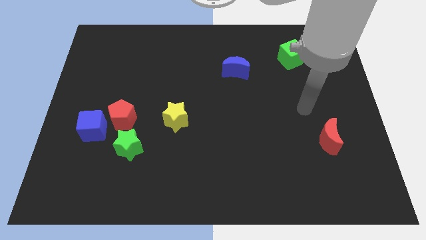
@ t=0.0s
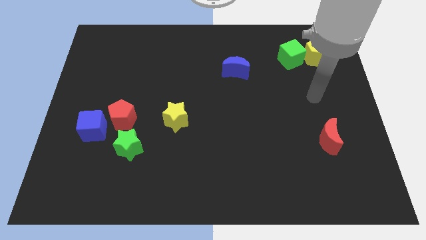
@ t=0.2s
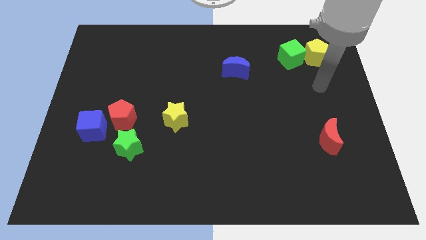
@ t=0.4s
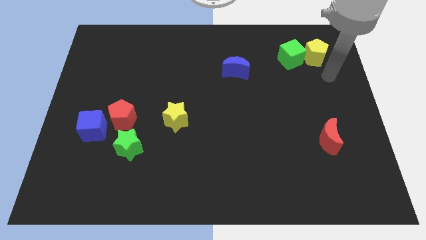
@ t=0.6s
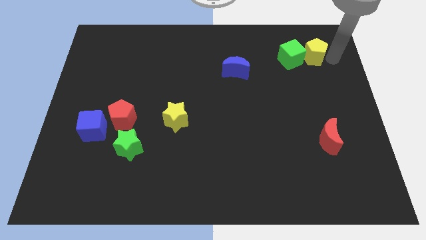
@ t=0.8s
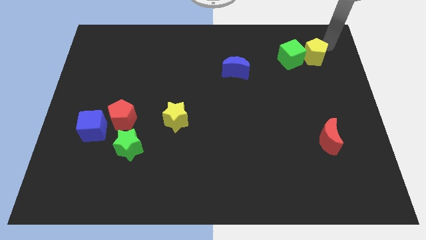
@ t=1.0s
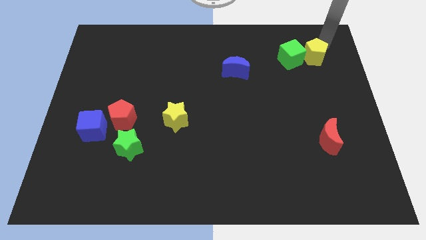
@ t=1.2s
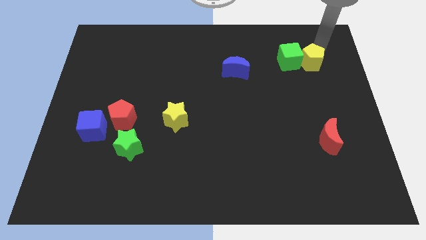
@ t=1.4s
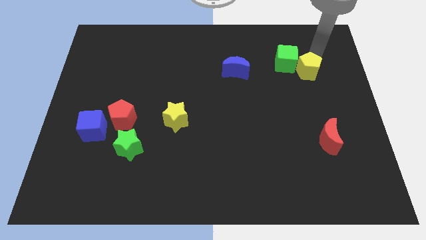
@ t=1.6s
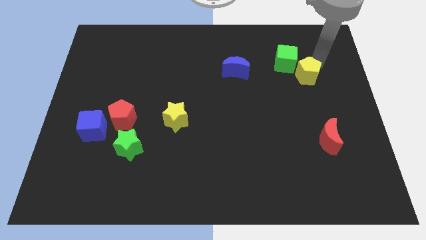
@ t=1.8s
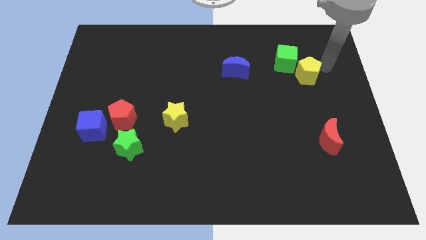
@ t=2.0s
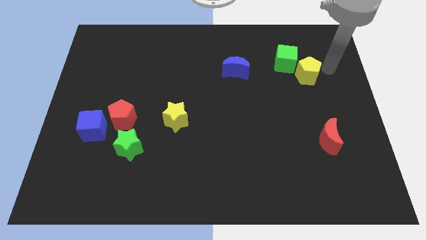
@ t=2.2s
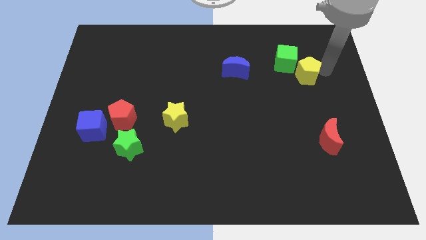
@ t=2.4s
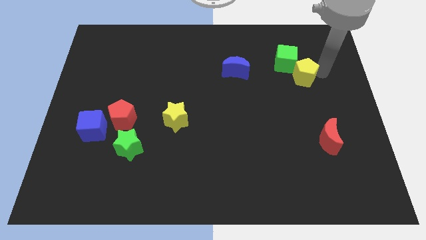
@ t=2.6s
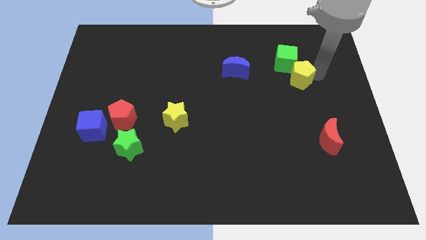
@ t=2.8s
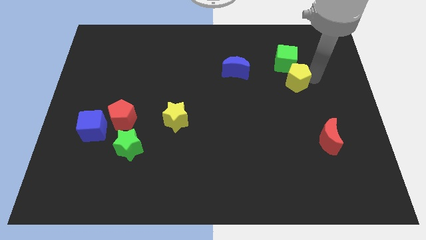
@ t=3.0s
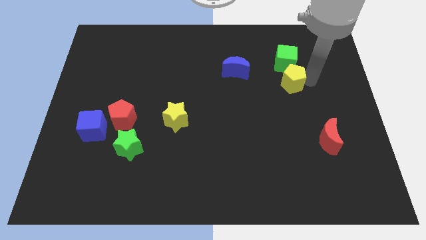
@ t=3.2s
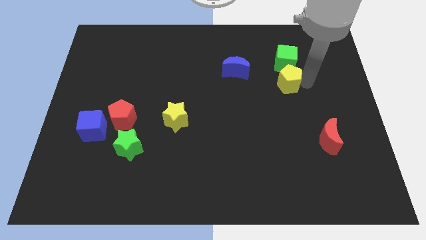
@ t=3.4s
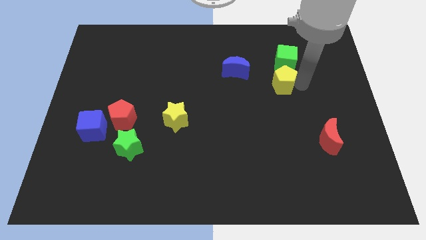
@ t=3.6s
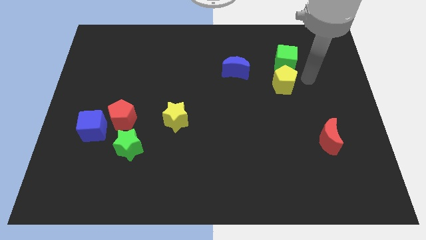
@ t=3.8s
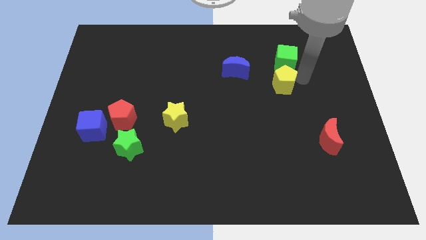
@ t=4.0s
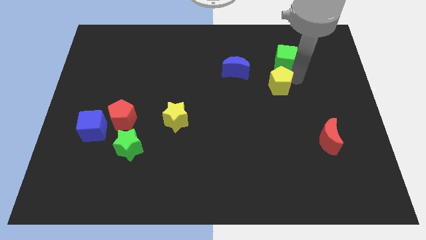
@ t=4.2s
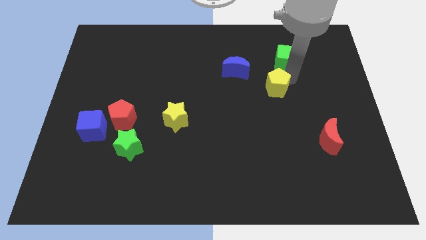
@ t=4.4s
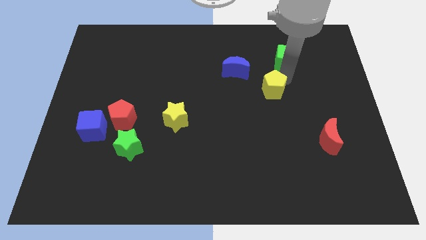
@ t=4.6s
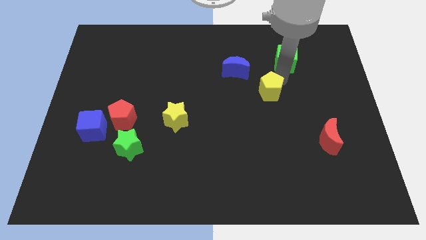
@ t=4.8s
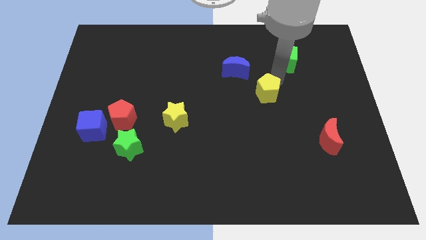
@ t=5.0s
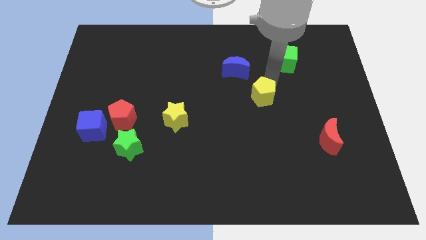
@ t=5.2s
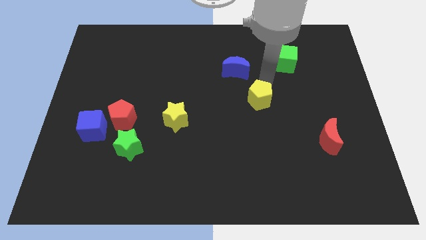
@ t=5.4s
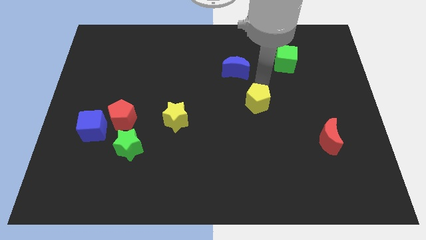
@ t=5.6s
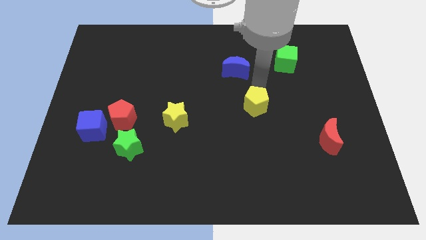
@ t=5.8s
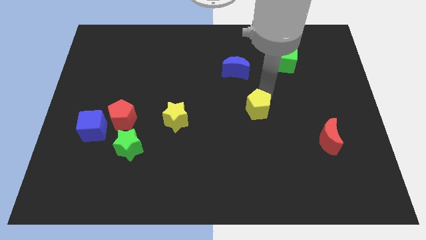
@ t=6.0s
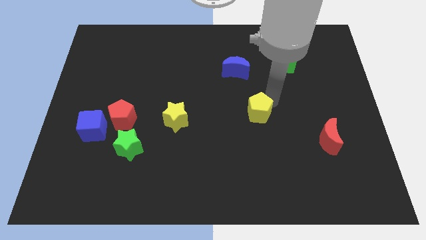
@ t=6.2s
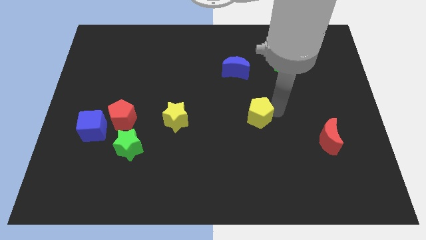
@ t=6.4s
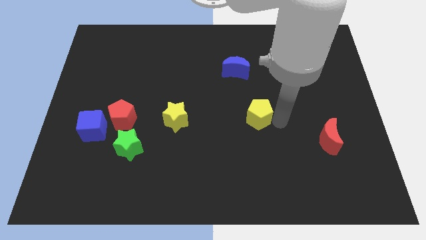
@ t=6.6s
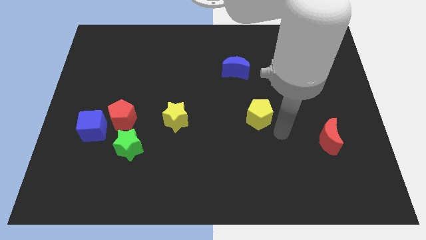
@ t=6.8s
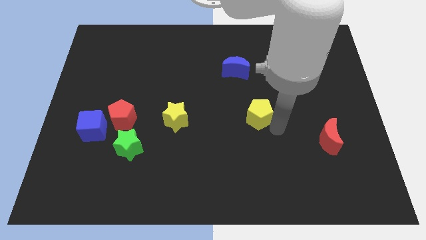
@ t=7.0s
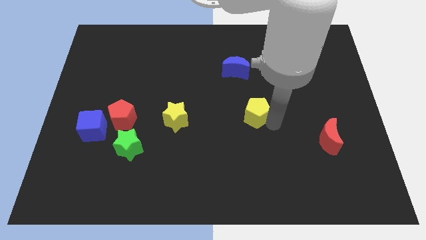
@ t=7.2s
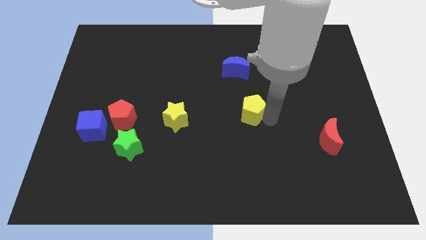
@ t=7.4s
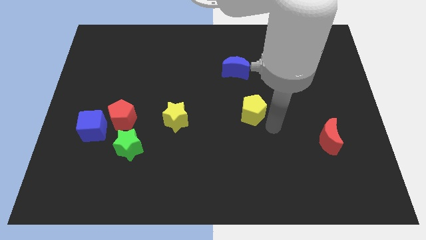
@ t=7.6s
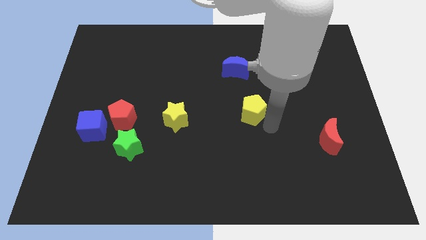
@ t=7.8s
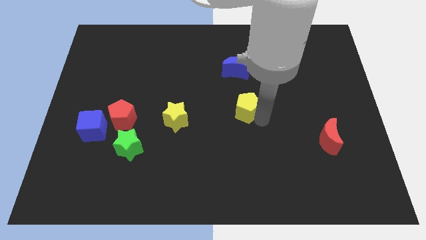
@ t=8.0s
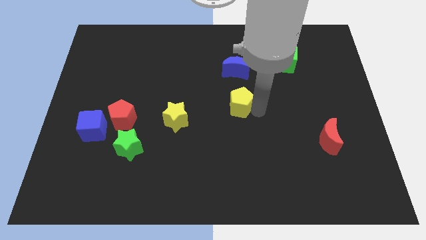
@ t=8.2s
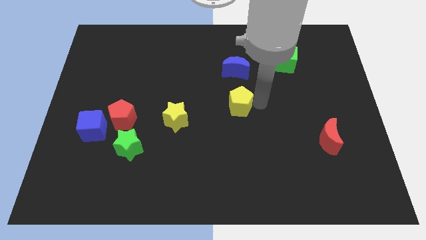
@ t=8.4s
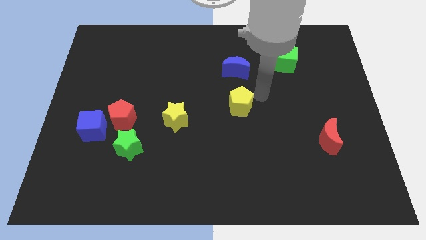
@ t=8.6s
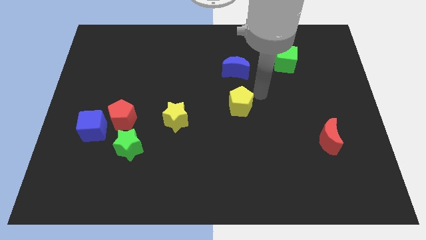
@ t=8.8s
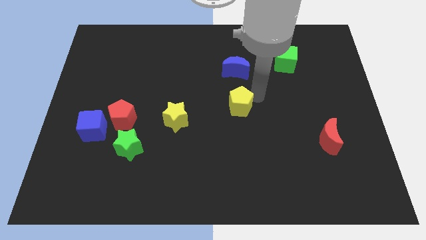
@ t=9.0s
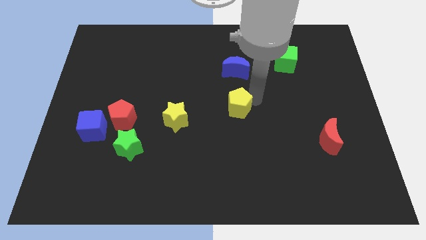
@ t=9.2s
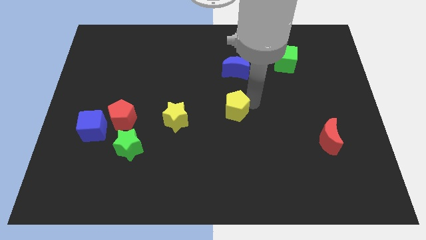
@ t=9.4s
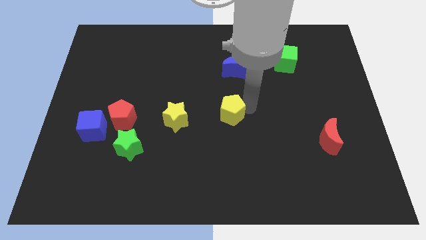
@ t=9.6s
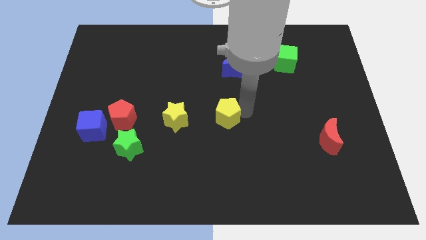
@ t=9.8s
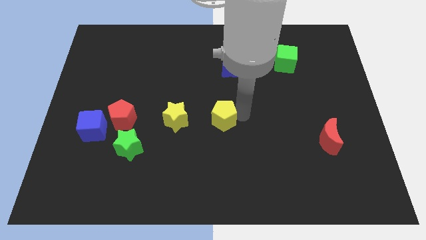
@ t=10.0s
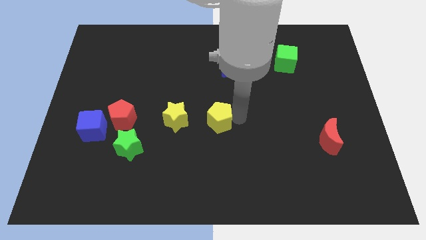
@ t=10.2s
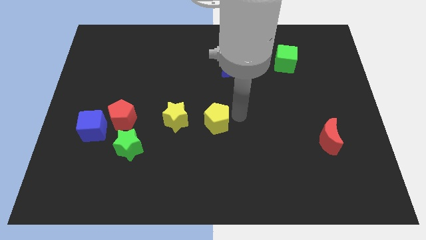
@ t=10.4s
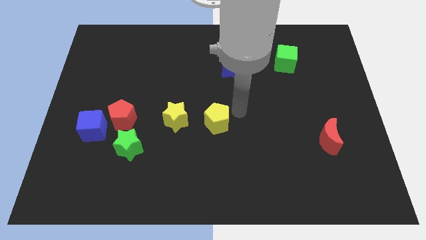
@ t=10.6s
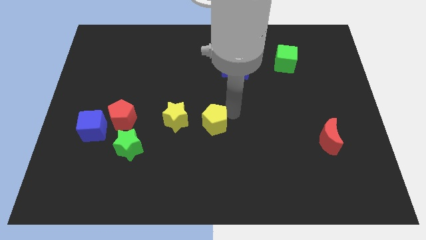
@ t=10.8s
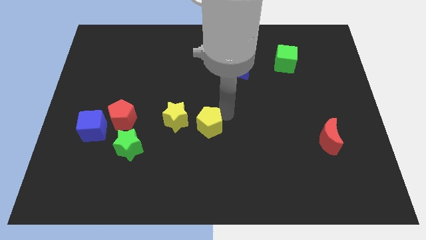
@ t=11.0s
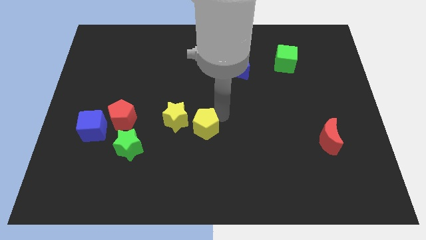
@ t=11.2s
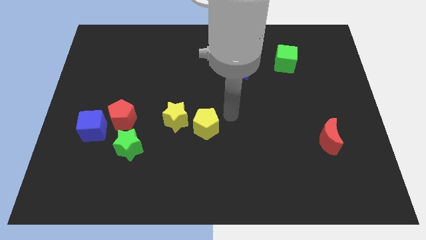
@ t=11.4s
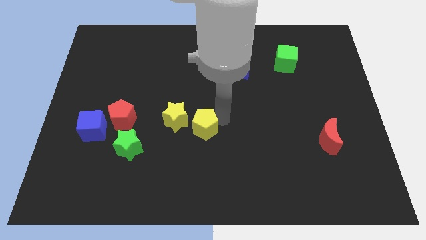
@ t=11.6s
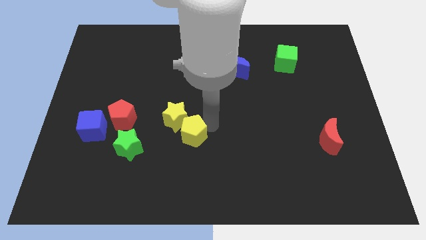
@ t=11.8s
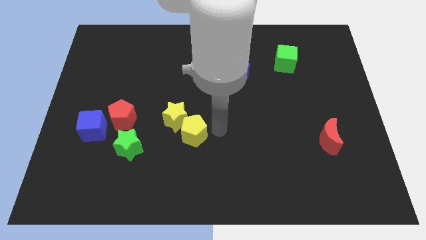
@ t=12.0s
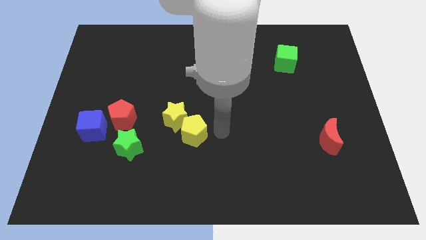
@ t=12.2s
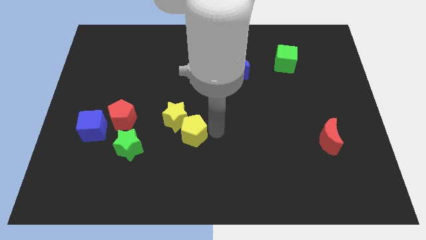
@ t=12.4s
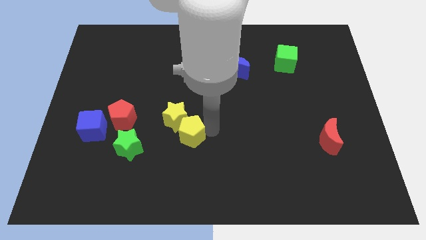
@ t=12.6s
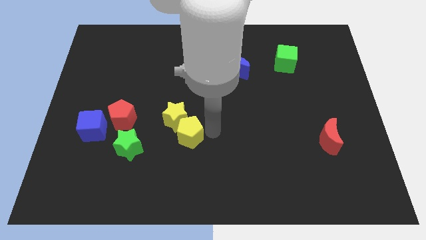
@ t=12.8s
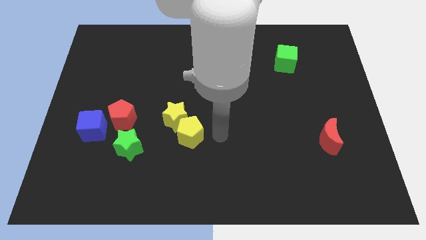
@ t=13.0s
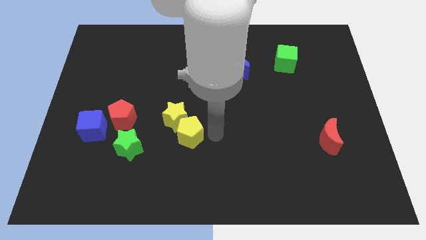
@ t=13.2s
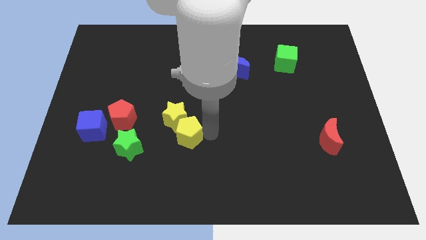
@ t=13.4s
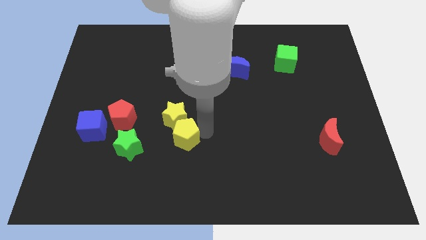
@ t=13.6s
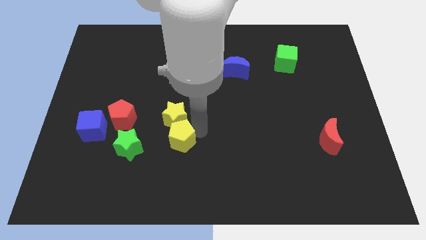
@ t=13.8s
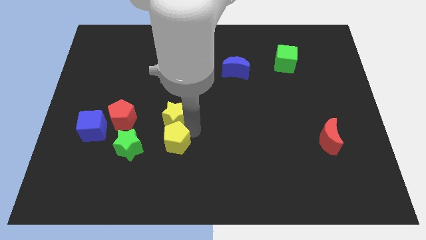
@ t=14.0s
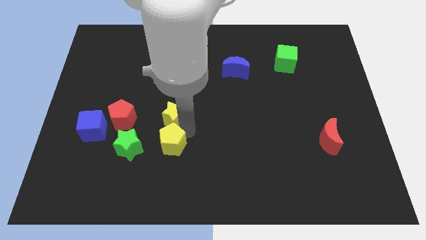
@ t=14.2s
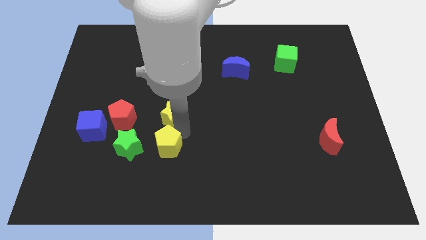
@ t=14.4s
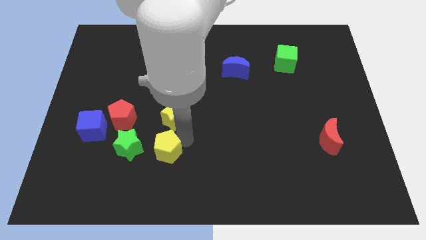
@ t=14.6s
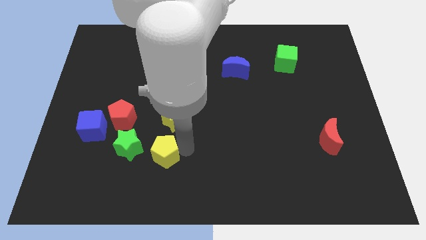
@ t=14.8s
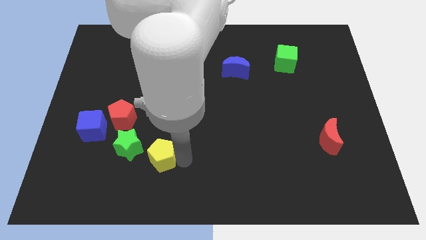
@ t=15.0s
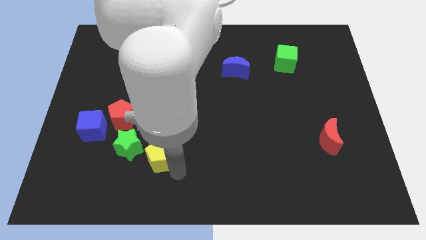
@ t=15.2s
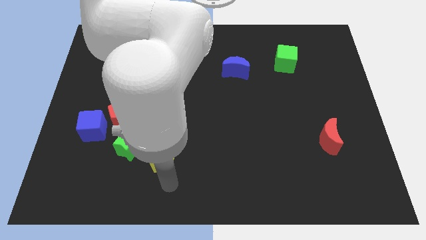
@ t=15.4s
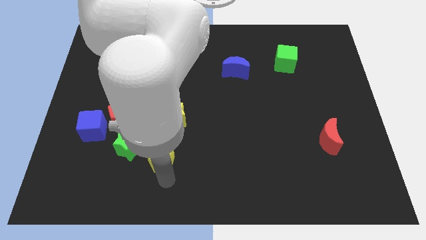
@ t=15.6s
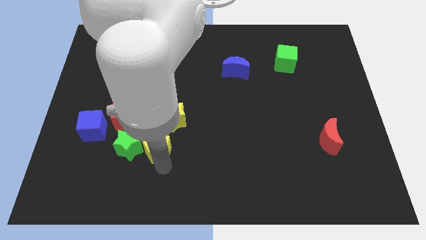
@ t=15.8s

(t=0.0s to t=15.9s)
push the yellow pentagon close to the green star
